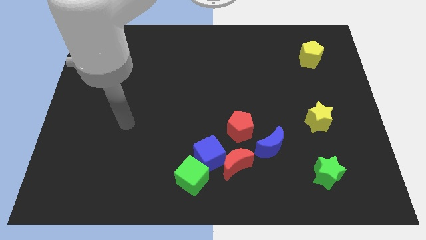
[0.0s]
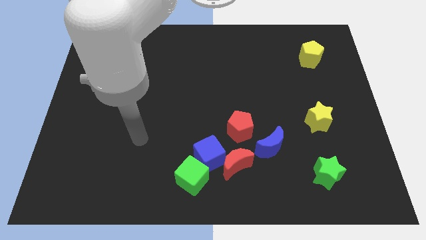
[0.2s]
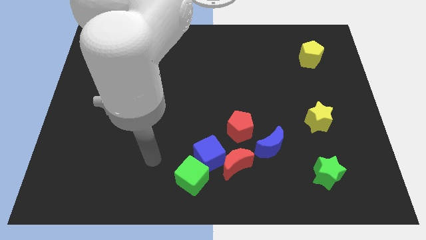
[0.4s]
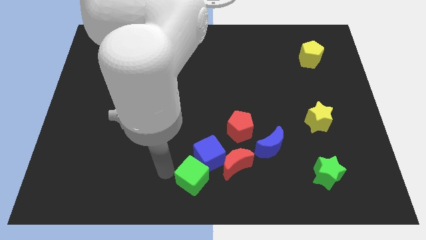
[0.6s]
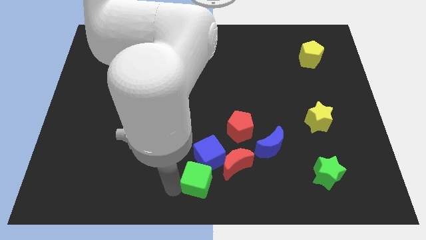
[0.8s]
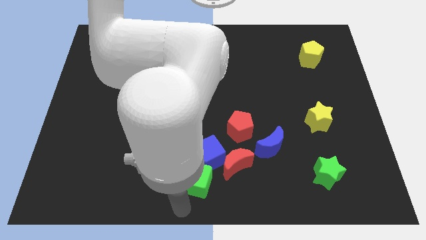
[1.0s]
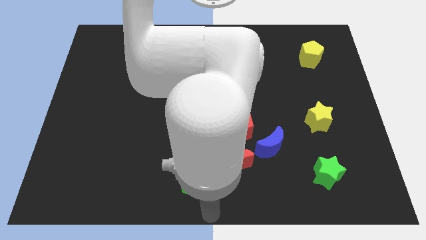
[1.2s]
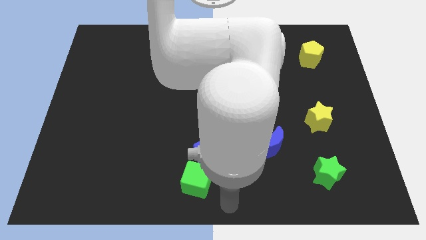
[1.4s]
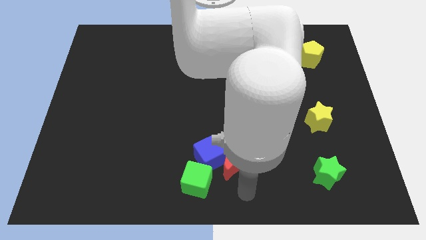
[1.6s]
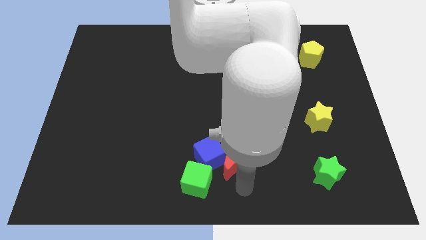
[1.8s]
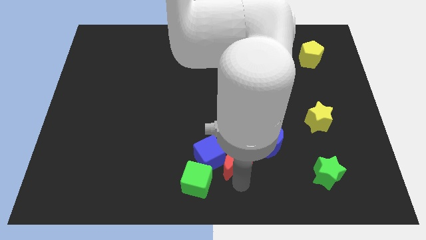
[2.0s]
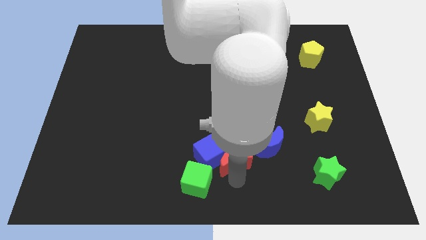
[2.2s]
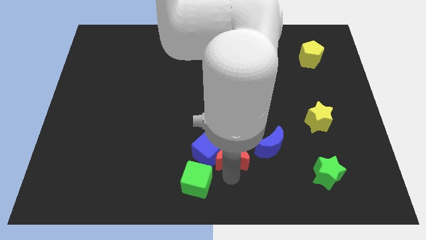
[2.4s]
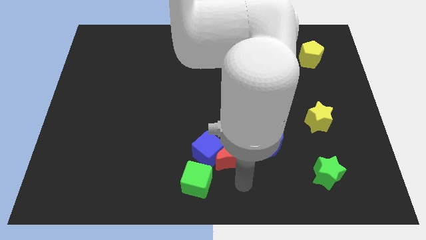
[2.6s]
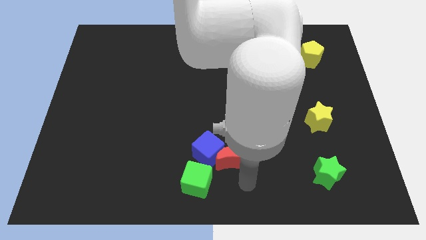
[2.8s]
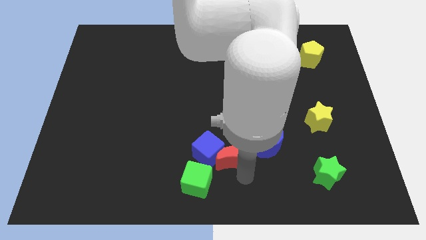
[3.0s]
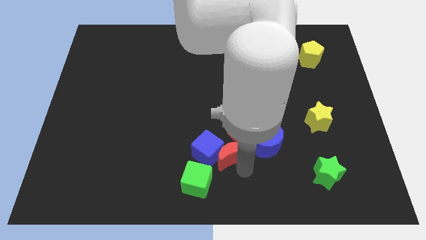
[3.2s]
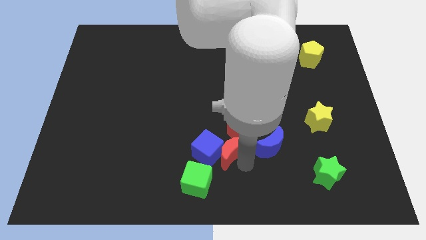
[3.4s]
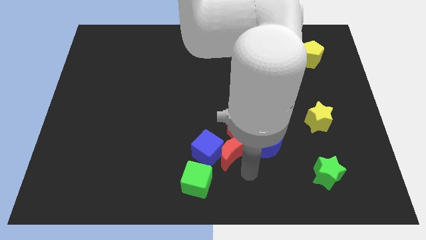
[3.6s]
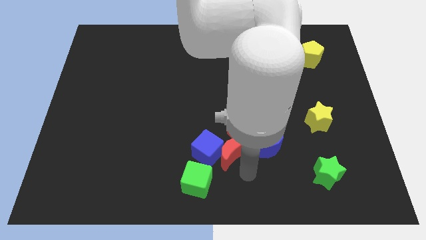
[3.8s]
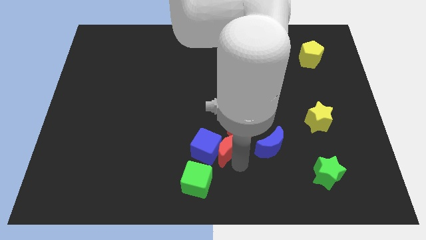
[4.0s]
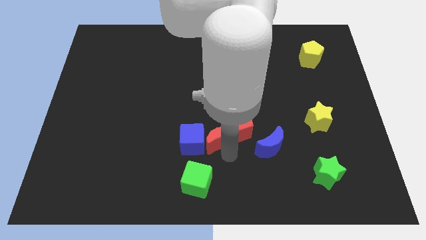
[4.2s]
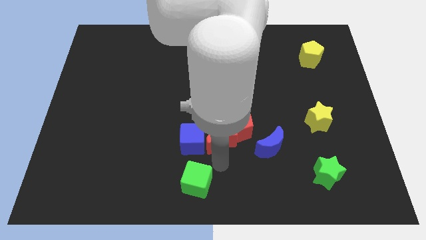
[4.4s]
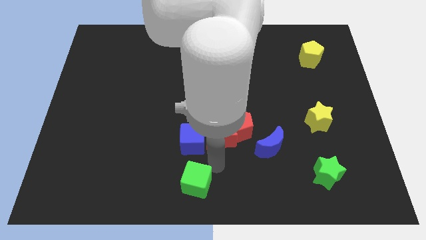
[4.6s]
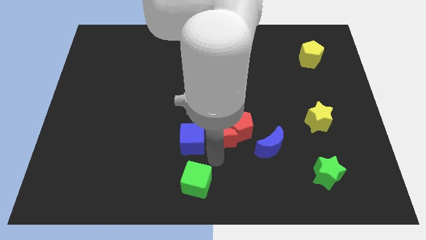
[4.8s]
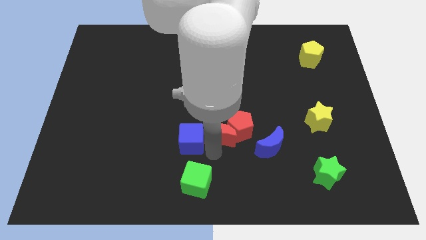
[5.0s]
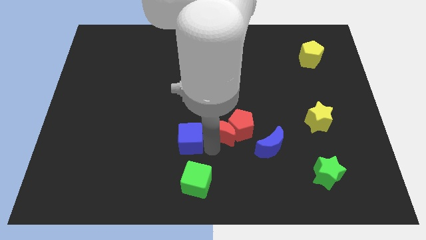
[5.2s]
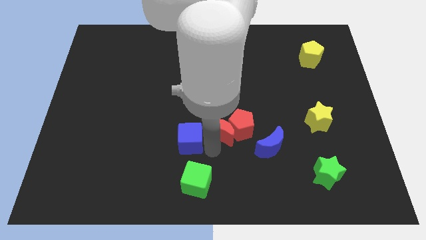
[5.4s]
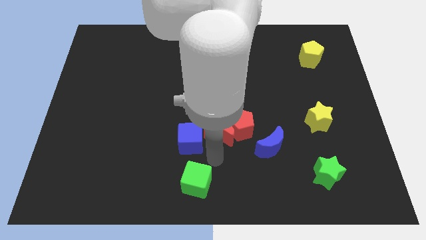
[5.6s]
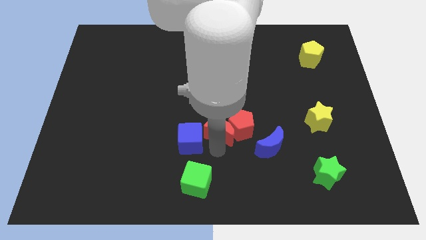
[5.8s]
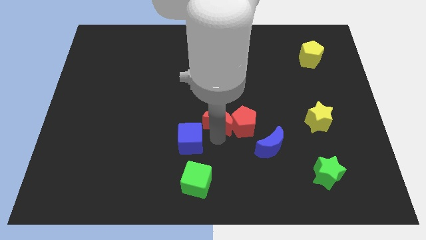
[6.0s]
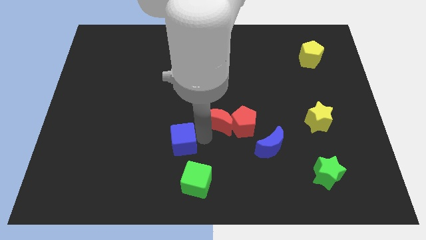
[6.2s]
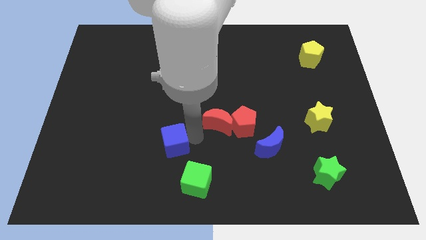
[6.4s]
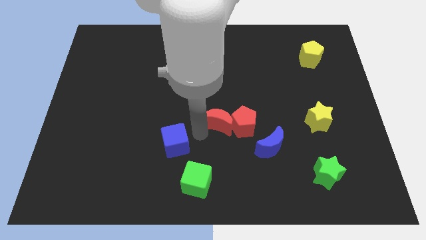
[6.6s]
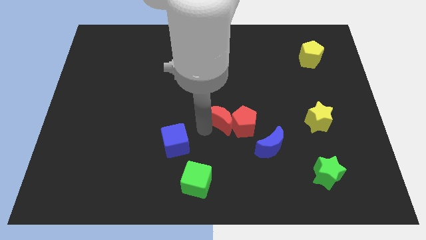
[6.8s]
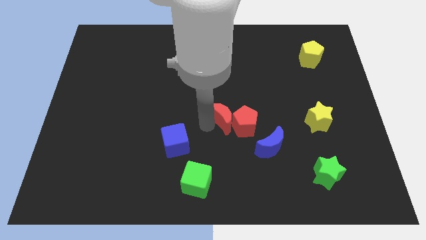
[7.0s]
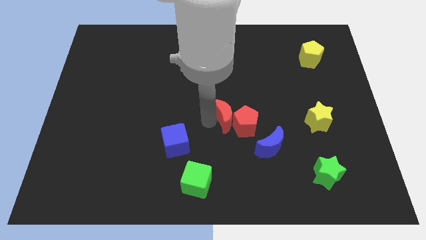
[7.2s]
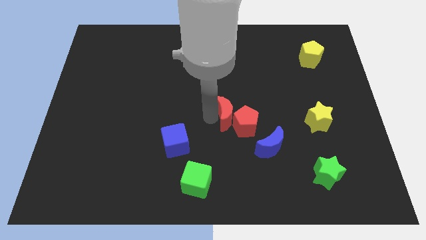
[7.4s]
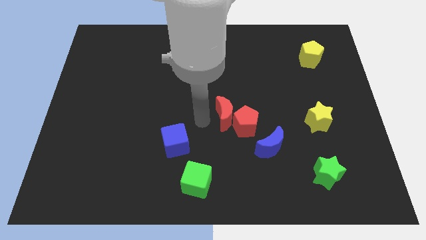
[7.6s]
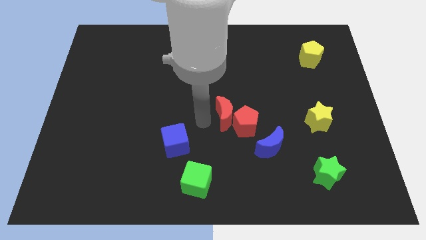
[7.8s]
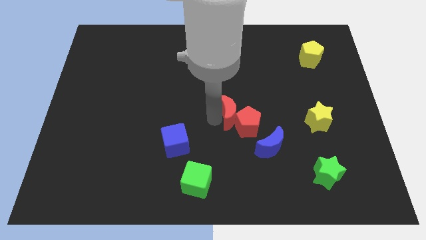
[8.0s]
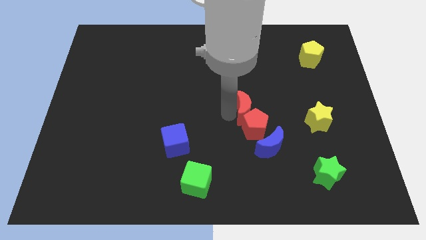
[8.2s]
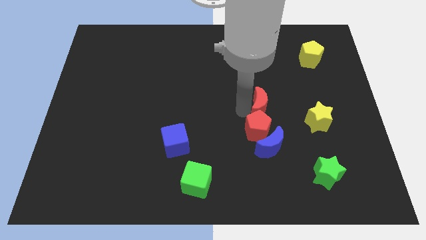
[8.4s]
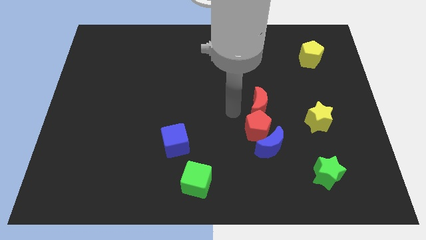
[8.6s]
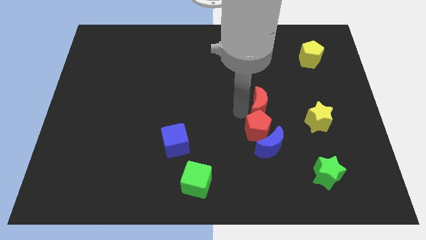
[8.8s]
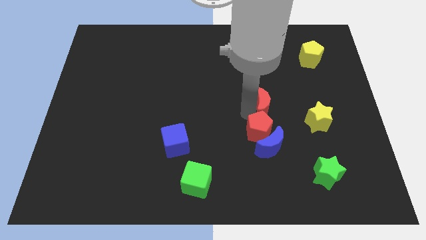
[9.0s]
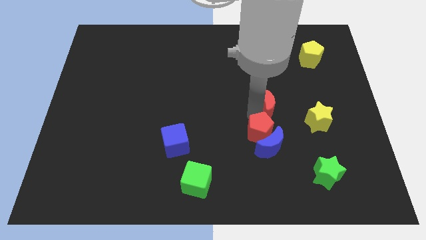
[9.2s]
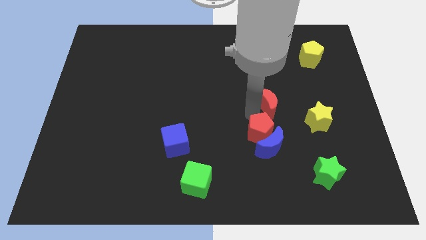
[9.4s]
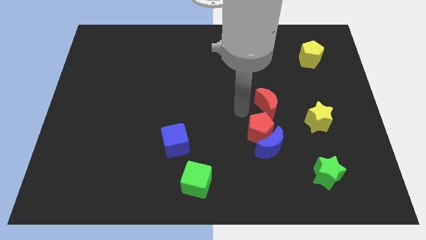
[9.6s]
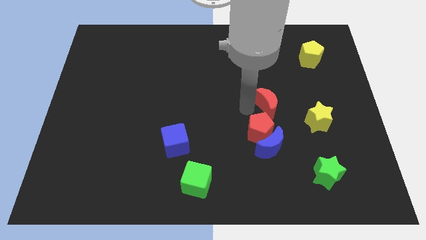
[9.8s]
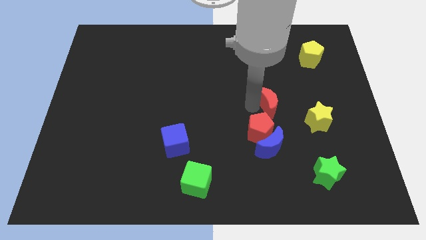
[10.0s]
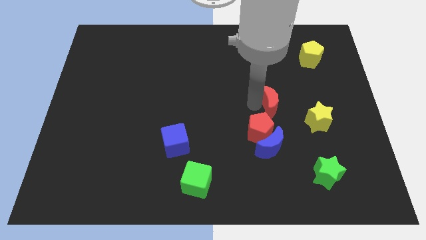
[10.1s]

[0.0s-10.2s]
put the red moon to the top left side of the yellow star

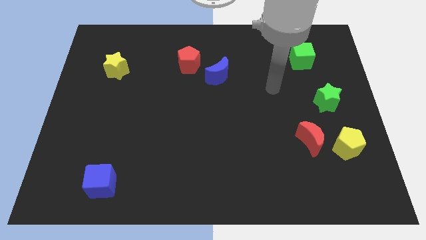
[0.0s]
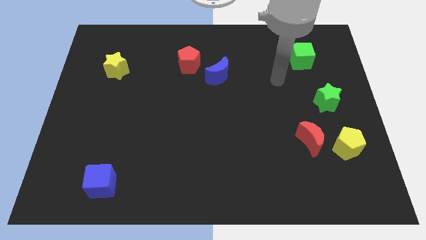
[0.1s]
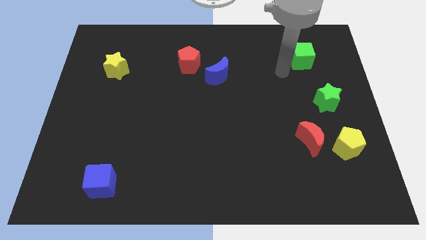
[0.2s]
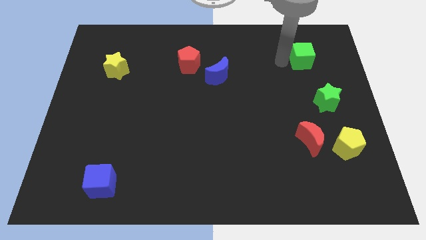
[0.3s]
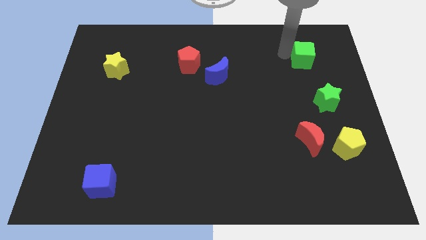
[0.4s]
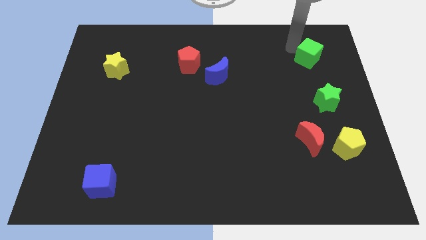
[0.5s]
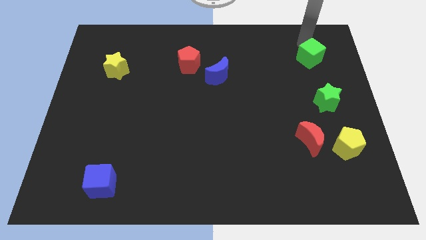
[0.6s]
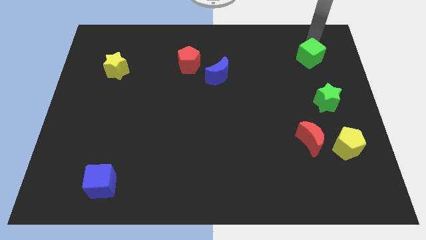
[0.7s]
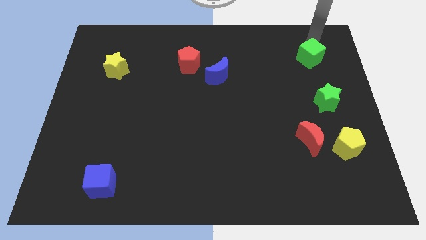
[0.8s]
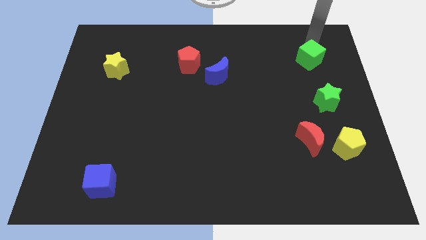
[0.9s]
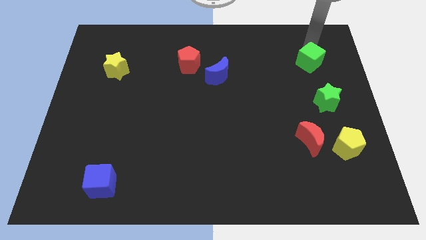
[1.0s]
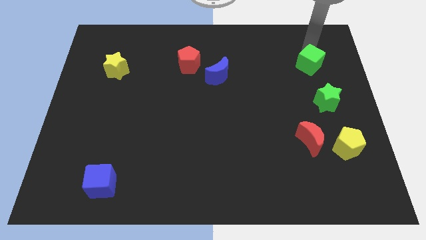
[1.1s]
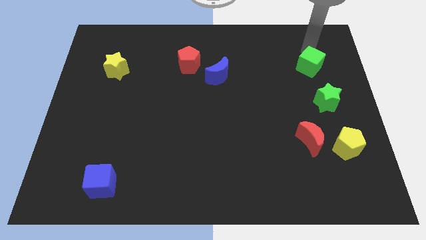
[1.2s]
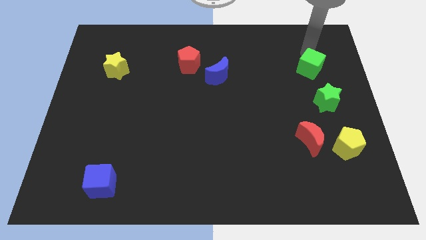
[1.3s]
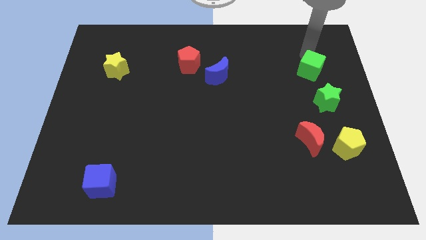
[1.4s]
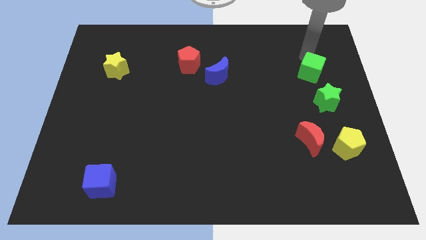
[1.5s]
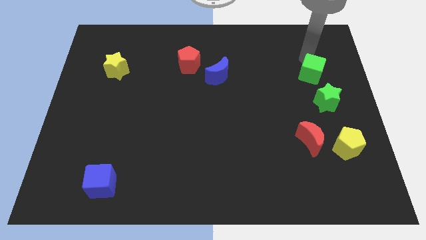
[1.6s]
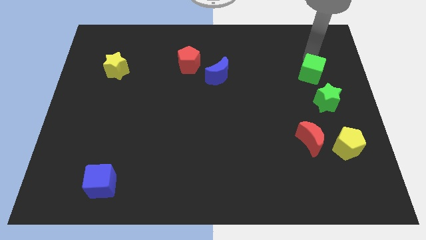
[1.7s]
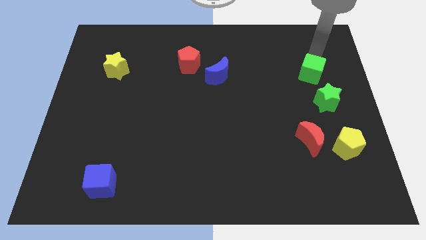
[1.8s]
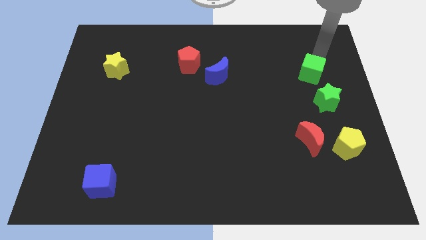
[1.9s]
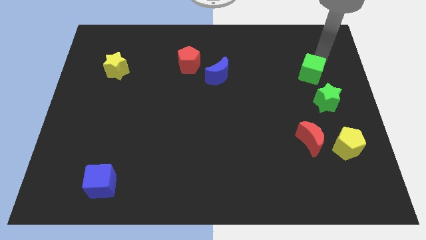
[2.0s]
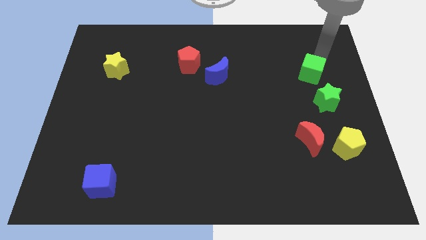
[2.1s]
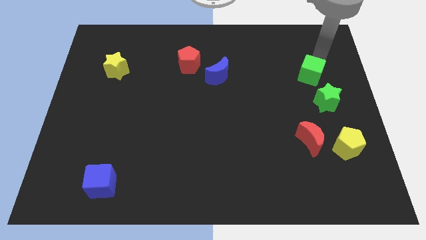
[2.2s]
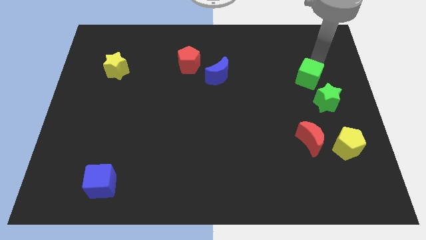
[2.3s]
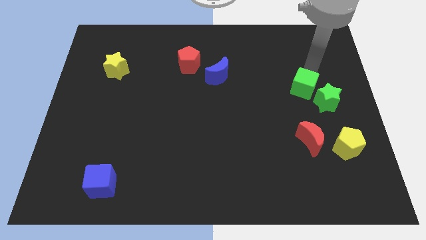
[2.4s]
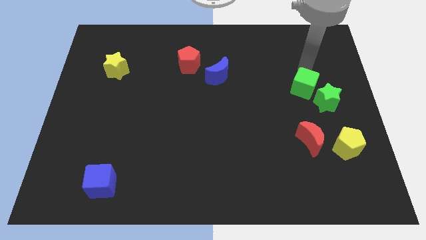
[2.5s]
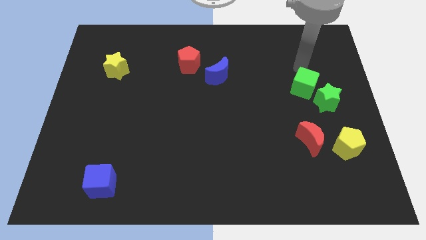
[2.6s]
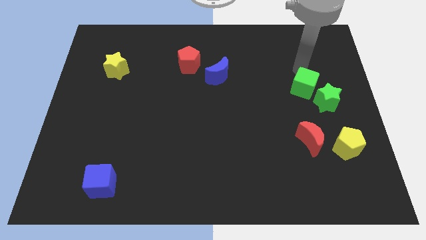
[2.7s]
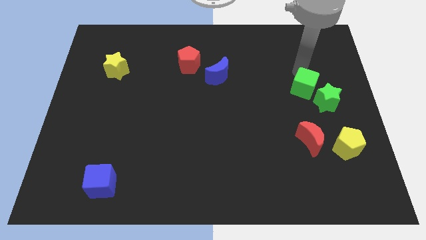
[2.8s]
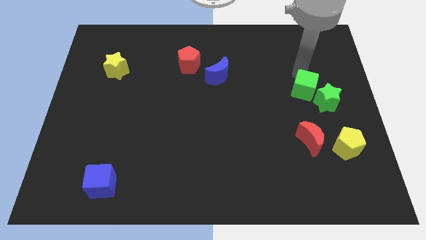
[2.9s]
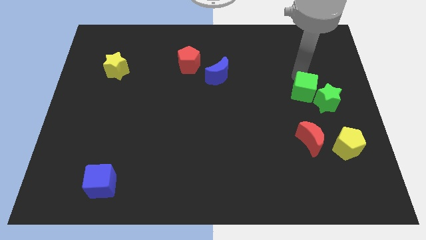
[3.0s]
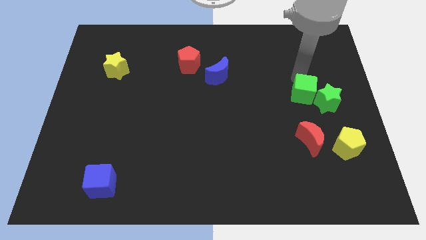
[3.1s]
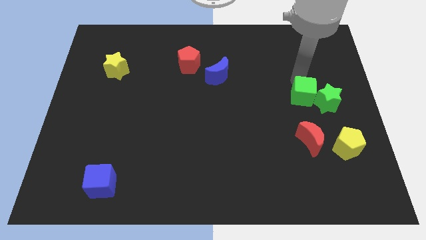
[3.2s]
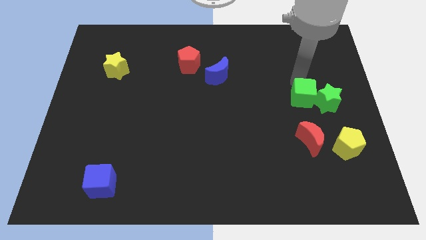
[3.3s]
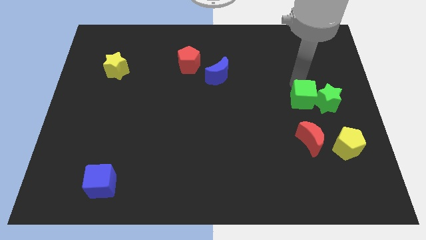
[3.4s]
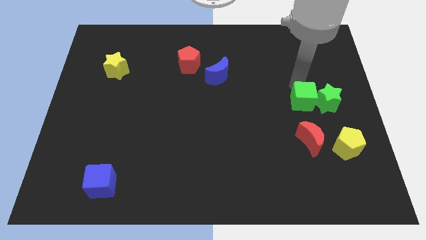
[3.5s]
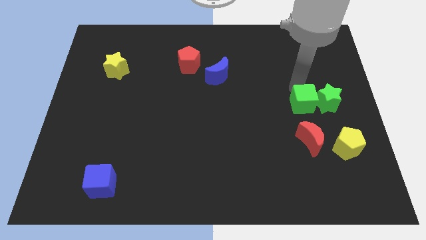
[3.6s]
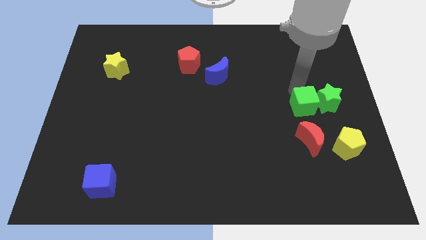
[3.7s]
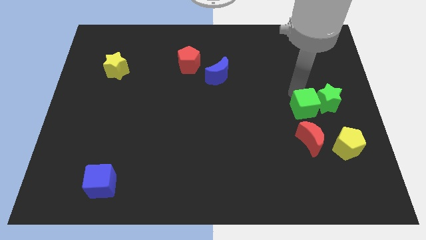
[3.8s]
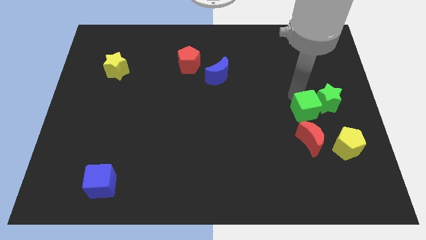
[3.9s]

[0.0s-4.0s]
move the green cube to the top left of the yellow pentagon
